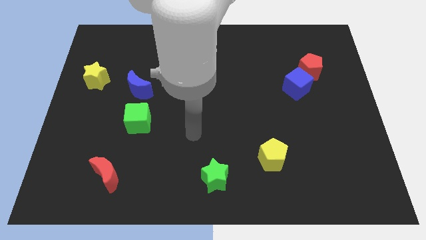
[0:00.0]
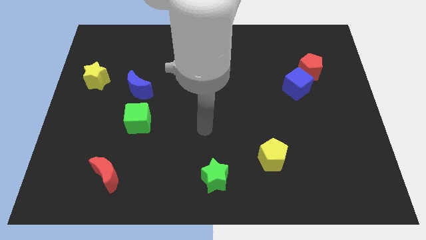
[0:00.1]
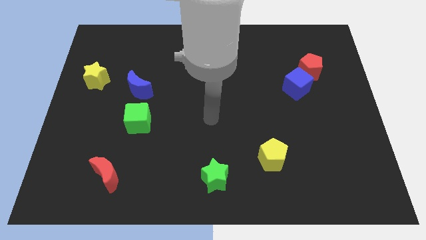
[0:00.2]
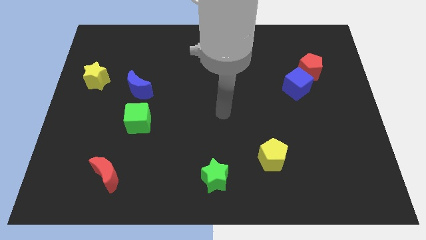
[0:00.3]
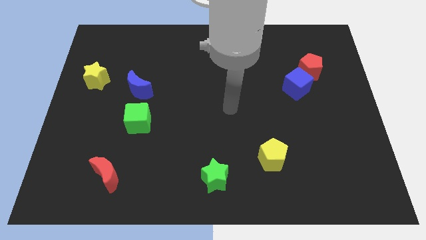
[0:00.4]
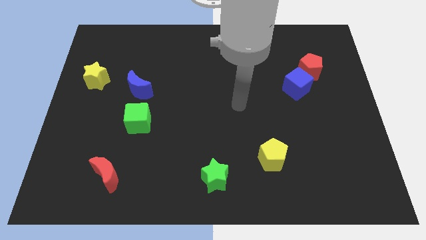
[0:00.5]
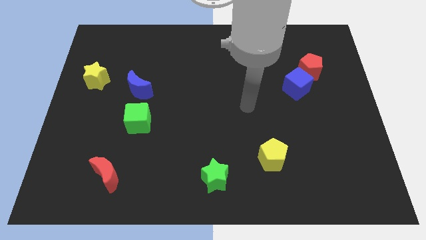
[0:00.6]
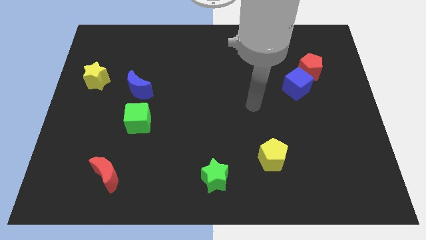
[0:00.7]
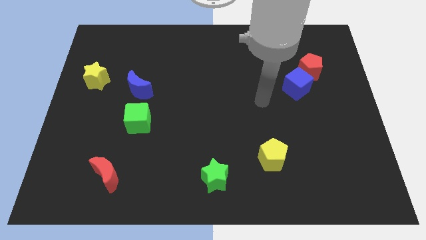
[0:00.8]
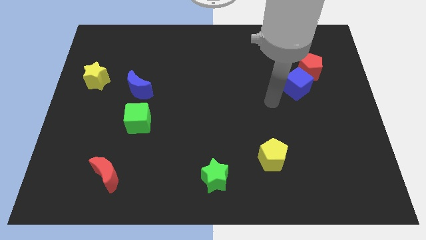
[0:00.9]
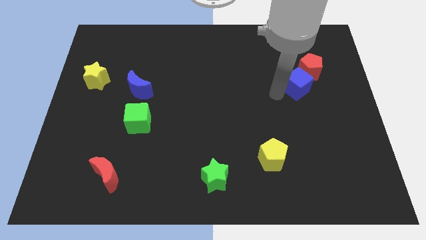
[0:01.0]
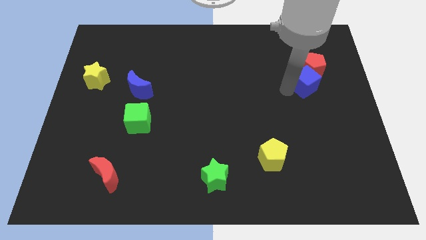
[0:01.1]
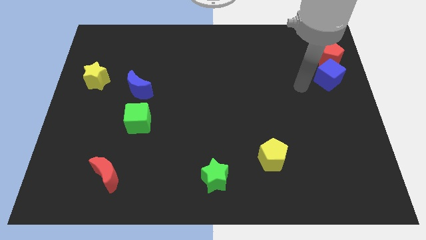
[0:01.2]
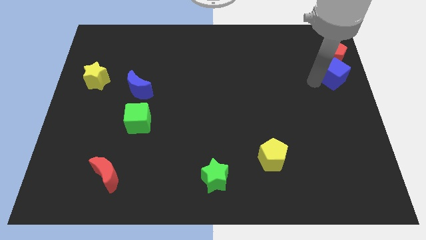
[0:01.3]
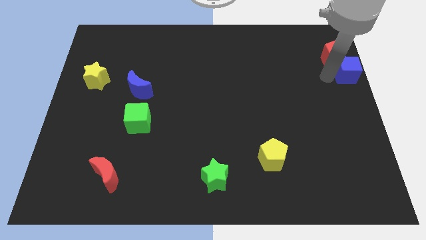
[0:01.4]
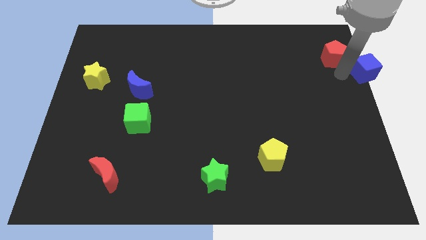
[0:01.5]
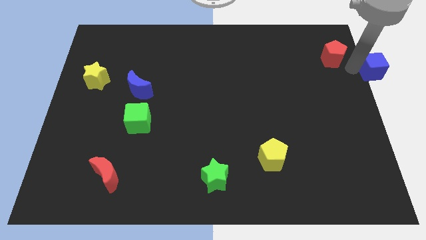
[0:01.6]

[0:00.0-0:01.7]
pull the red pentagon apart from the blue cube

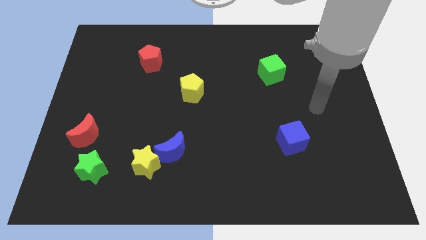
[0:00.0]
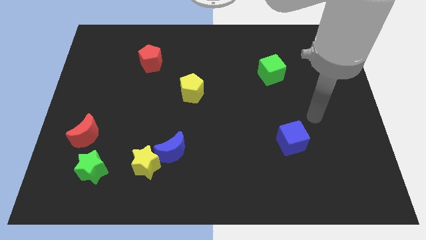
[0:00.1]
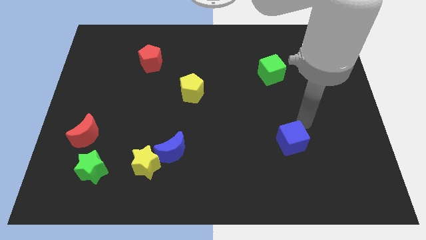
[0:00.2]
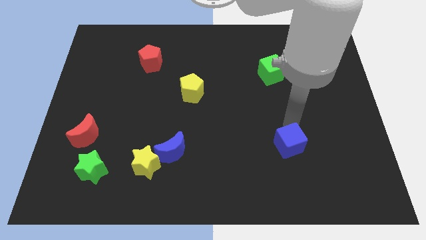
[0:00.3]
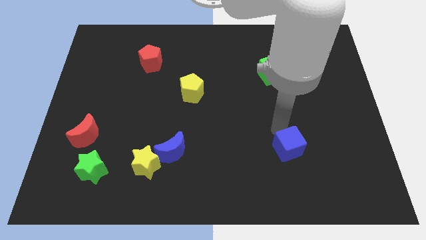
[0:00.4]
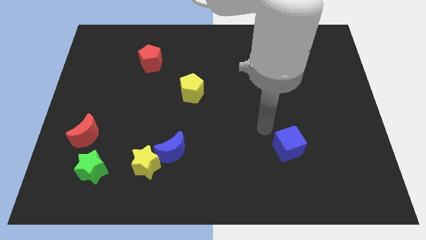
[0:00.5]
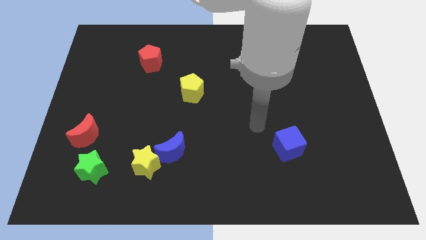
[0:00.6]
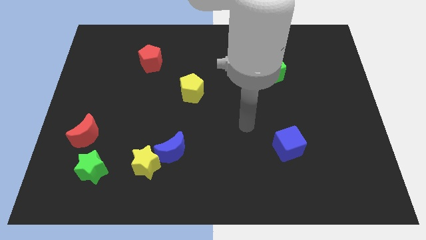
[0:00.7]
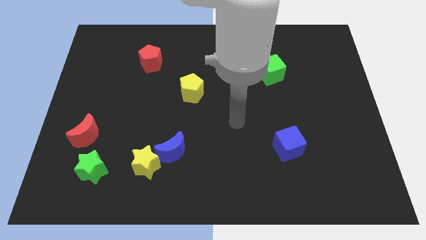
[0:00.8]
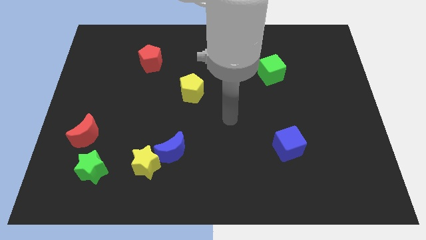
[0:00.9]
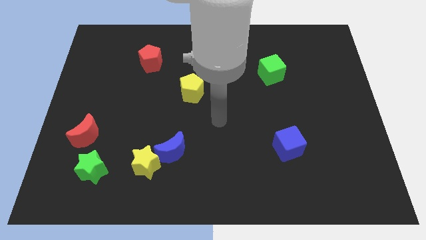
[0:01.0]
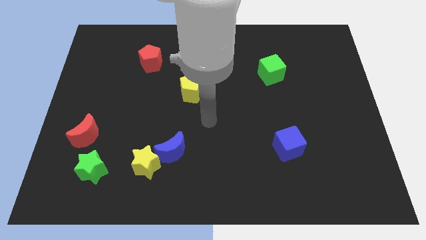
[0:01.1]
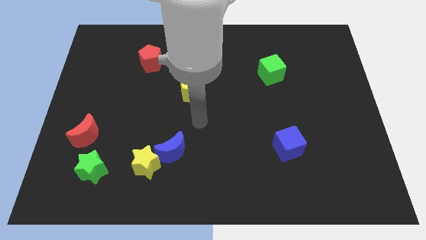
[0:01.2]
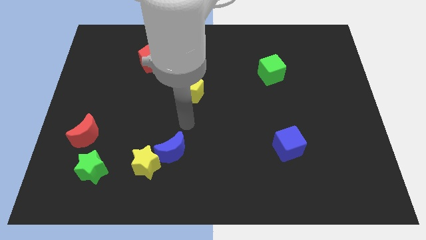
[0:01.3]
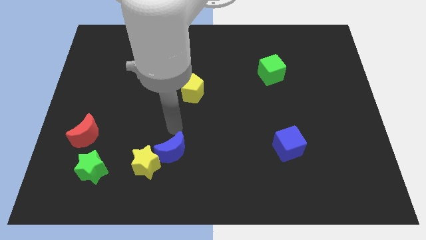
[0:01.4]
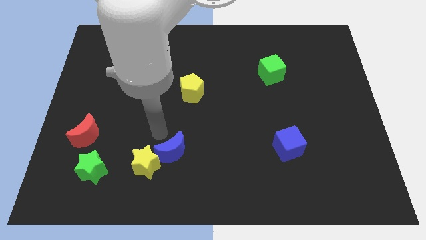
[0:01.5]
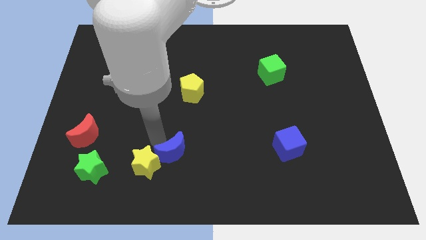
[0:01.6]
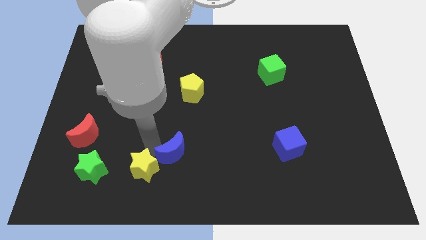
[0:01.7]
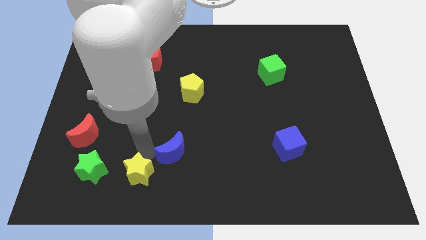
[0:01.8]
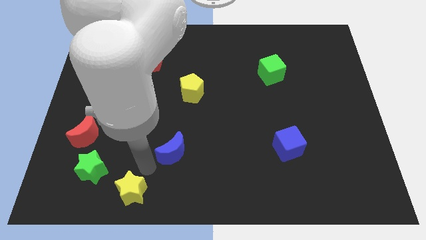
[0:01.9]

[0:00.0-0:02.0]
move the blue moon away from the yellow star

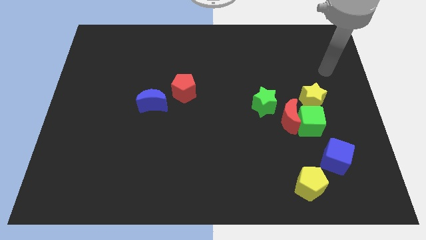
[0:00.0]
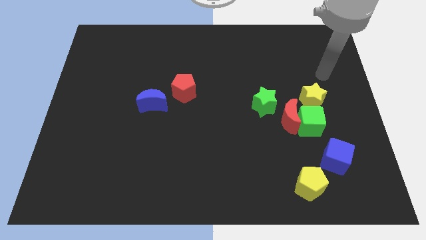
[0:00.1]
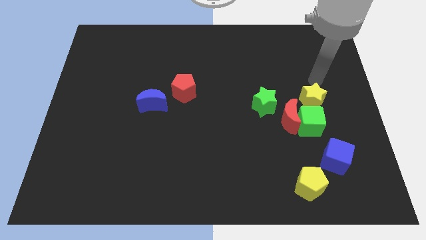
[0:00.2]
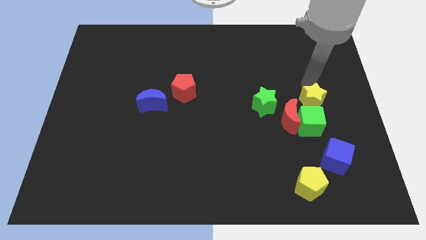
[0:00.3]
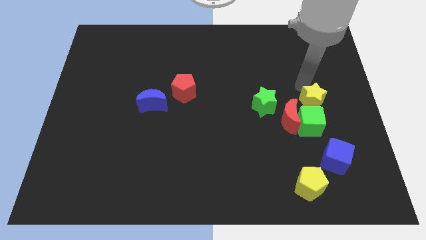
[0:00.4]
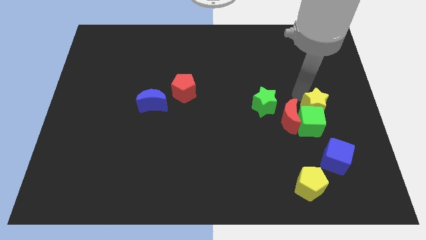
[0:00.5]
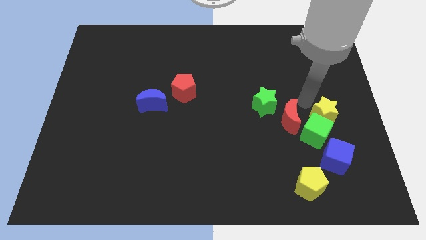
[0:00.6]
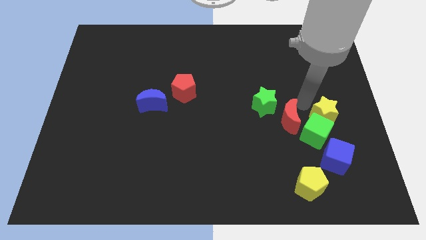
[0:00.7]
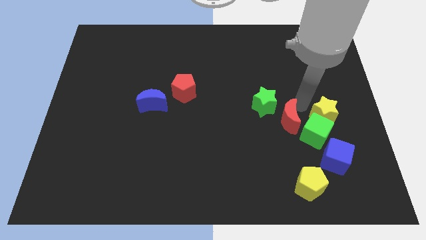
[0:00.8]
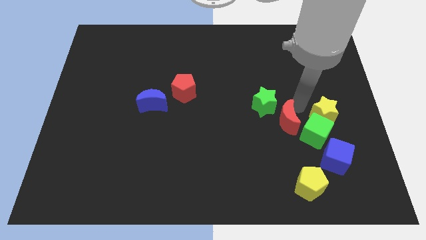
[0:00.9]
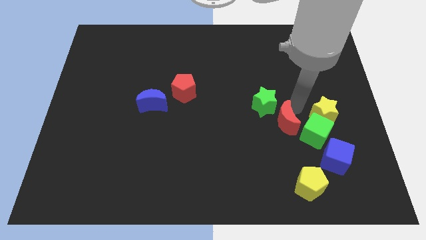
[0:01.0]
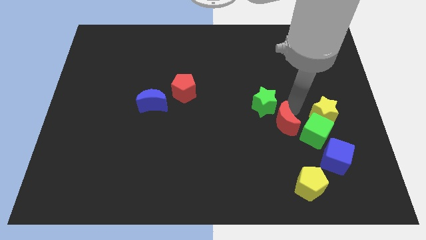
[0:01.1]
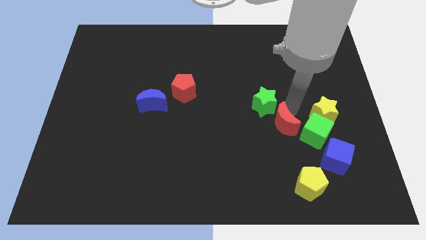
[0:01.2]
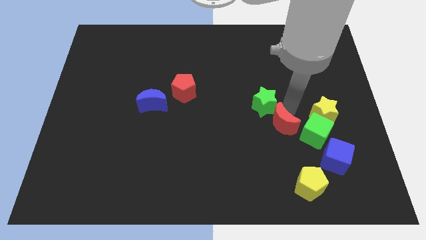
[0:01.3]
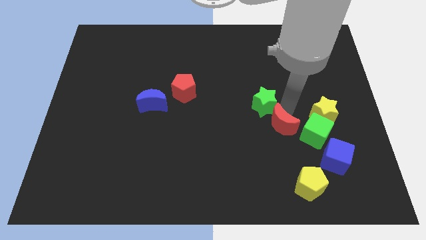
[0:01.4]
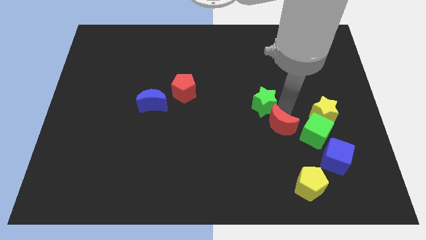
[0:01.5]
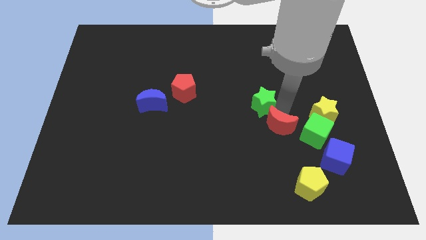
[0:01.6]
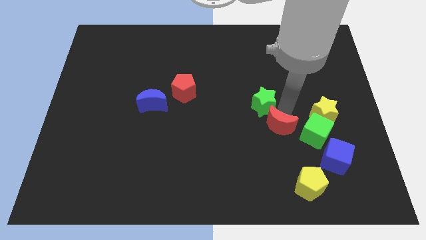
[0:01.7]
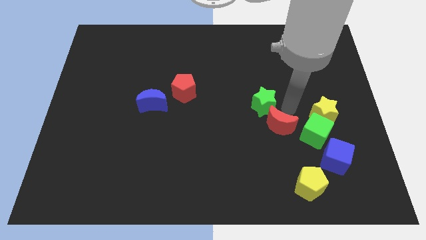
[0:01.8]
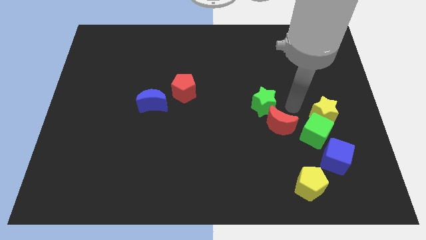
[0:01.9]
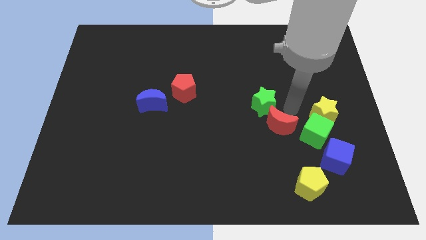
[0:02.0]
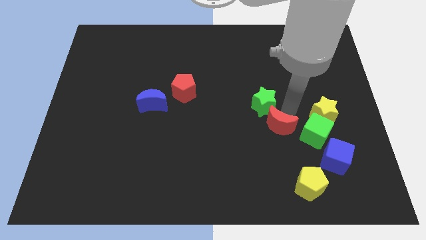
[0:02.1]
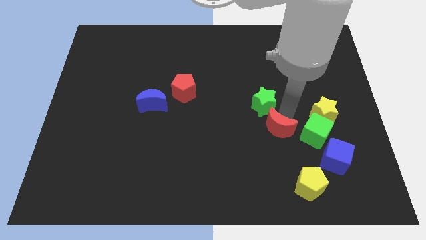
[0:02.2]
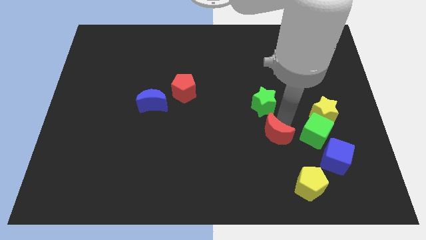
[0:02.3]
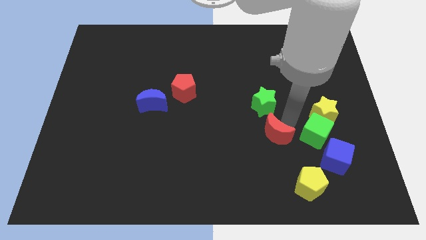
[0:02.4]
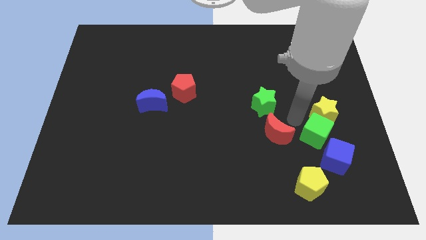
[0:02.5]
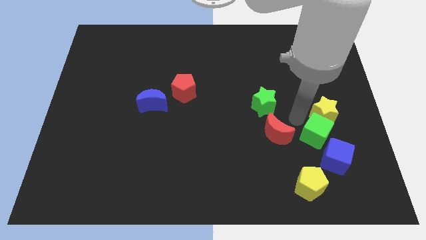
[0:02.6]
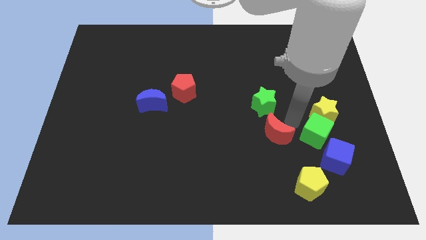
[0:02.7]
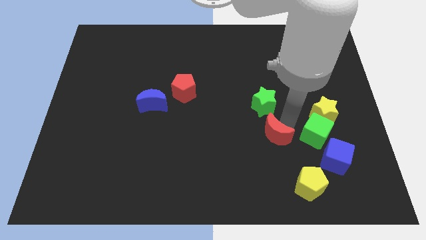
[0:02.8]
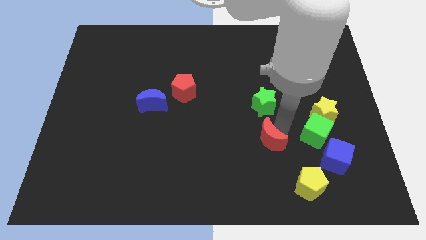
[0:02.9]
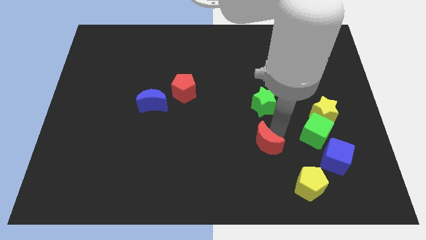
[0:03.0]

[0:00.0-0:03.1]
pull the red moon apart from the green cube, green star, and yellow star

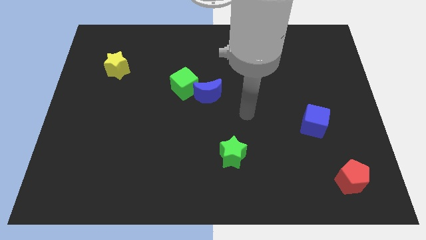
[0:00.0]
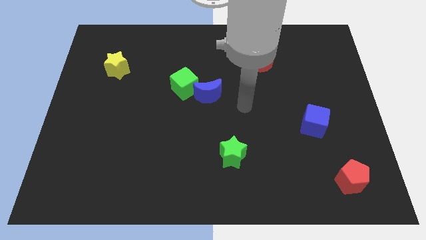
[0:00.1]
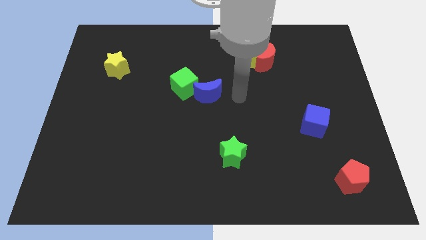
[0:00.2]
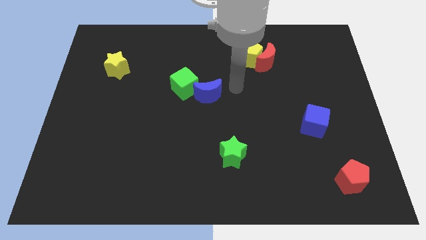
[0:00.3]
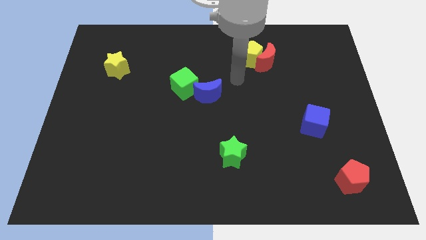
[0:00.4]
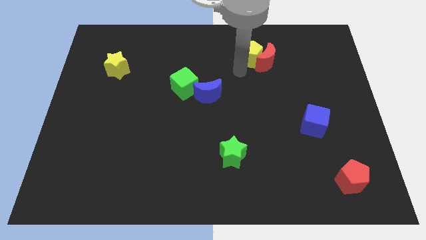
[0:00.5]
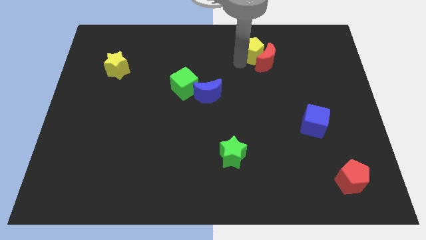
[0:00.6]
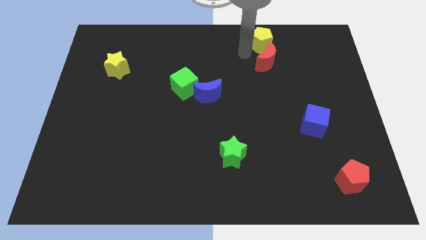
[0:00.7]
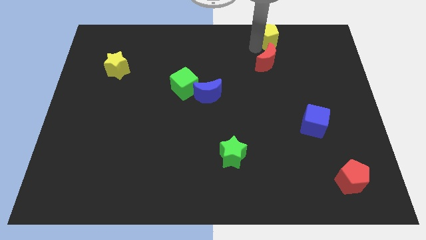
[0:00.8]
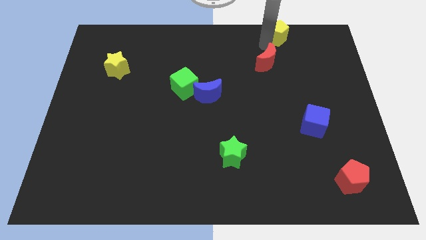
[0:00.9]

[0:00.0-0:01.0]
pull the red moon apart from the yellow pentagon

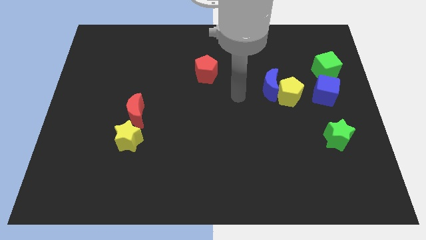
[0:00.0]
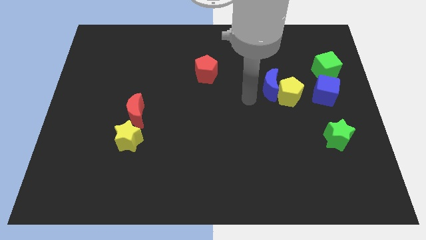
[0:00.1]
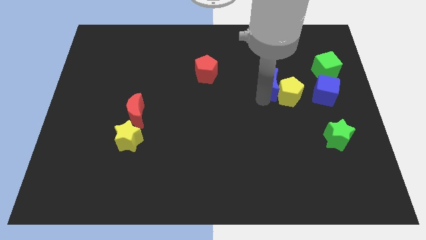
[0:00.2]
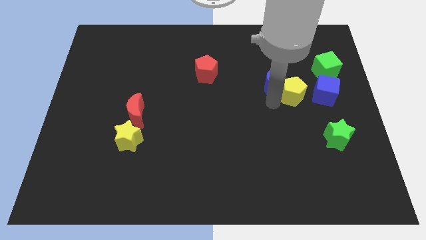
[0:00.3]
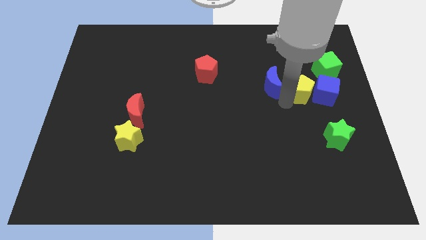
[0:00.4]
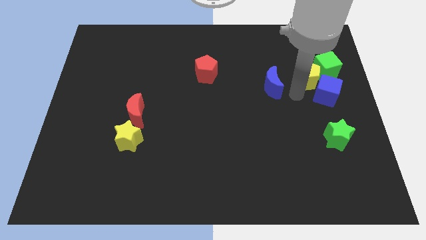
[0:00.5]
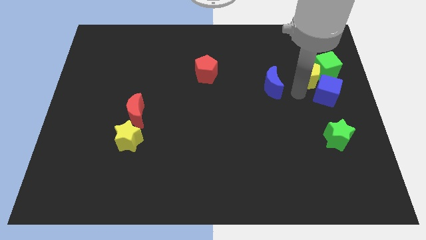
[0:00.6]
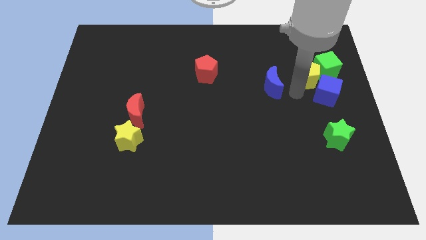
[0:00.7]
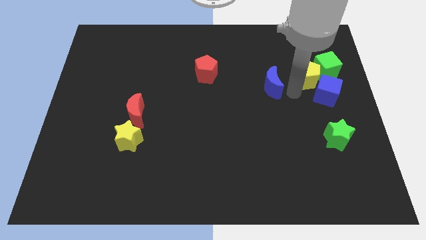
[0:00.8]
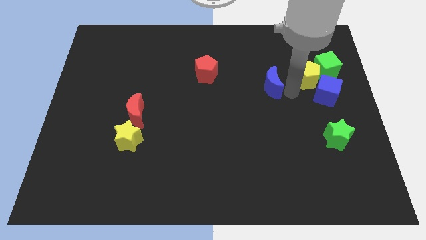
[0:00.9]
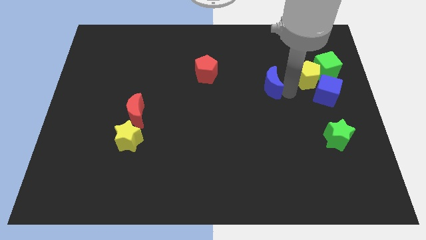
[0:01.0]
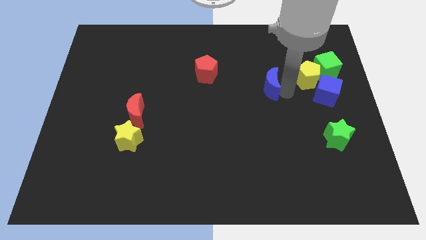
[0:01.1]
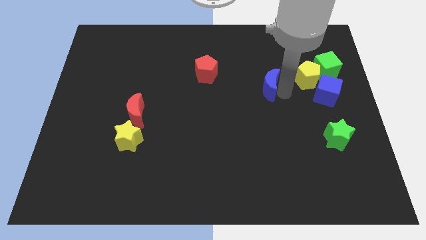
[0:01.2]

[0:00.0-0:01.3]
separate the blue moon from the yellow pentagon

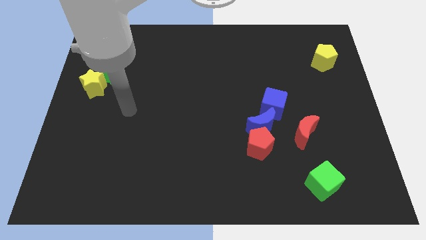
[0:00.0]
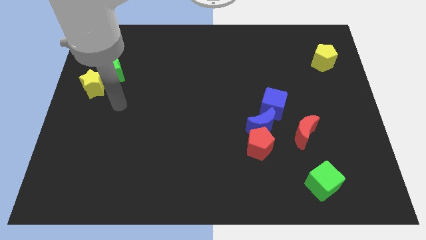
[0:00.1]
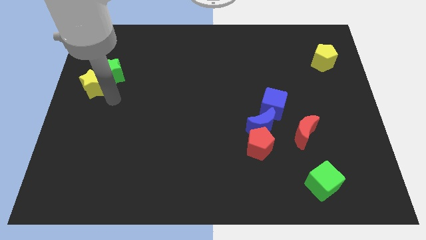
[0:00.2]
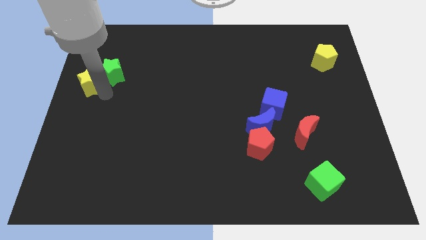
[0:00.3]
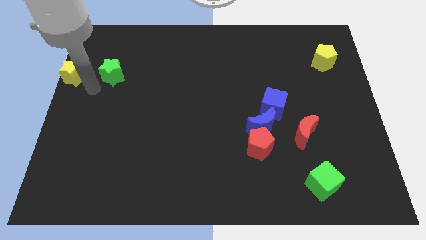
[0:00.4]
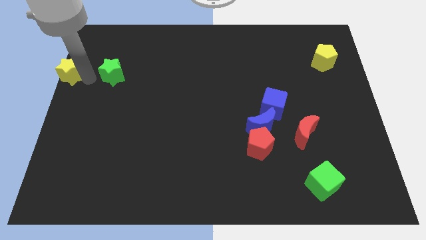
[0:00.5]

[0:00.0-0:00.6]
separate the green star from the yellow star
